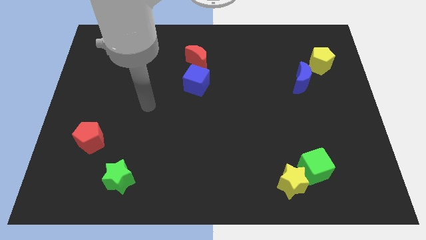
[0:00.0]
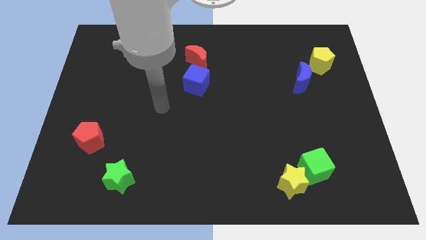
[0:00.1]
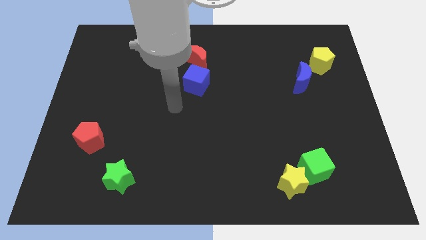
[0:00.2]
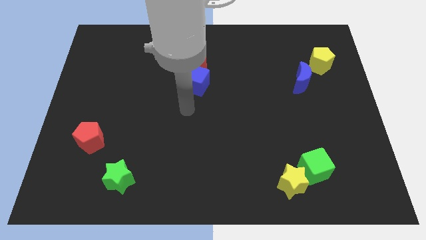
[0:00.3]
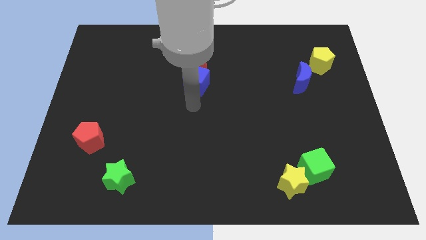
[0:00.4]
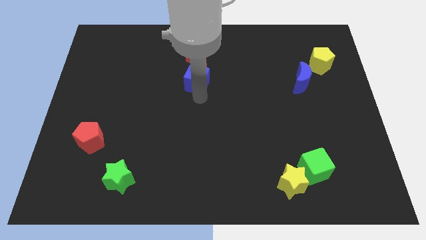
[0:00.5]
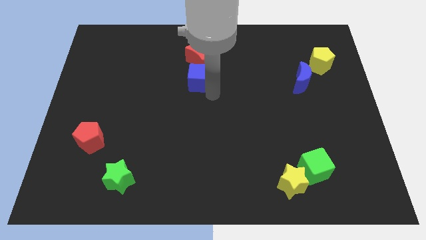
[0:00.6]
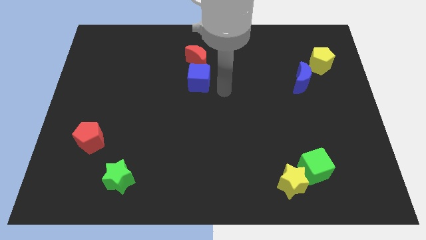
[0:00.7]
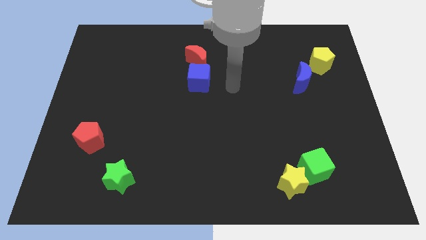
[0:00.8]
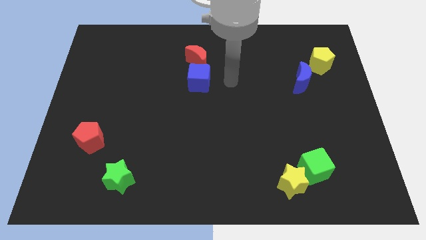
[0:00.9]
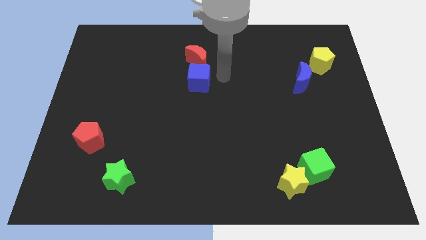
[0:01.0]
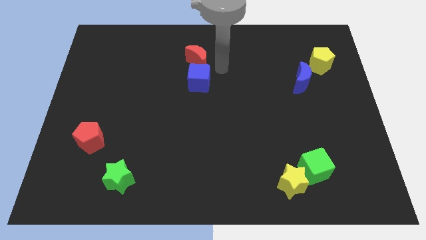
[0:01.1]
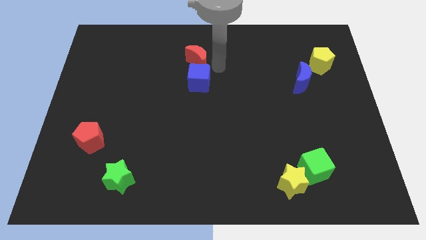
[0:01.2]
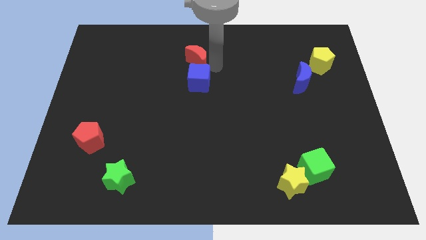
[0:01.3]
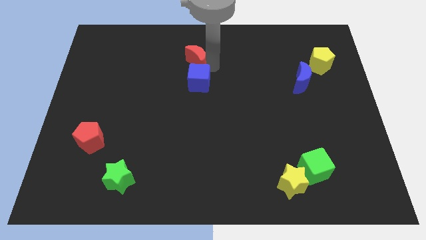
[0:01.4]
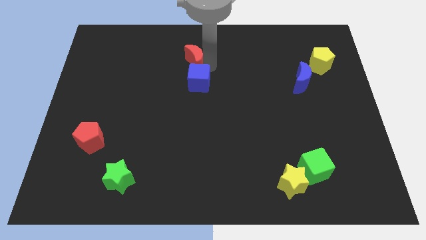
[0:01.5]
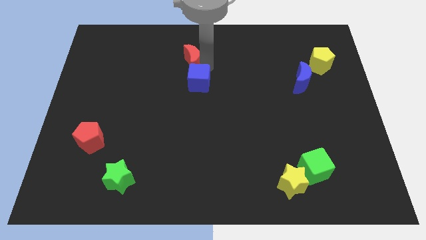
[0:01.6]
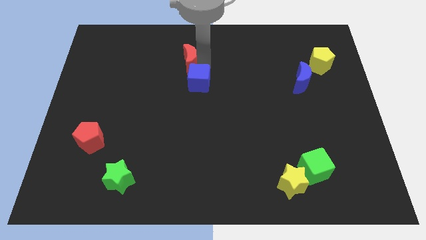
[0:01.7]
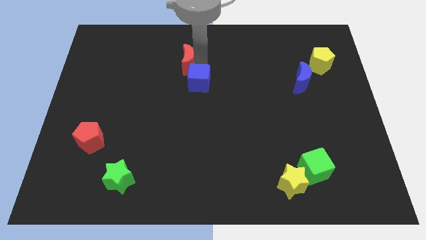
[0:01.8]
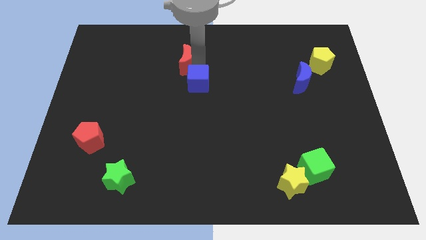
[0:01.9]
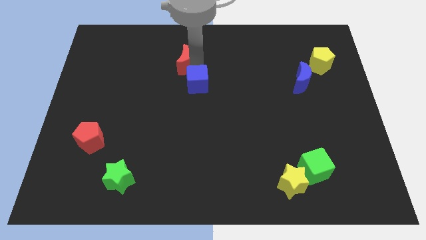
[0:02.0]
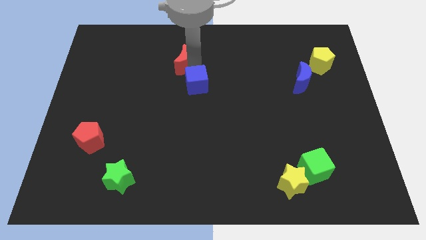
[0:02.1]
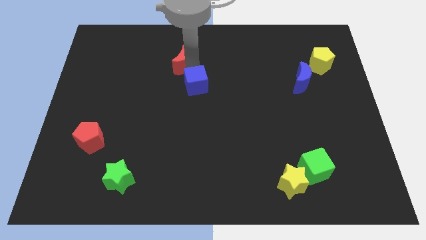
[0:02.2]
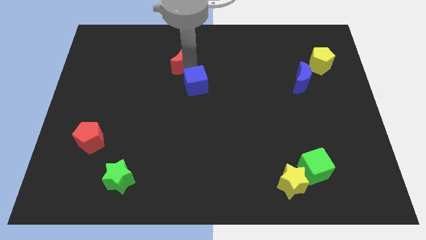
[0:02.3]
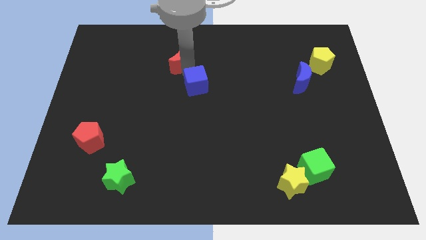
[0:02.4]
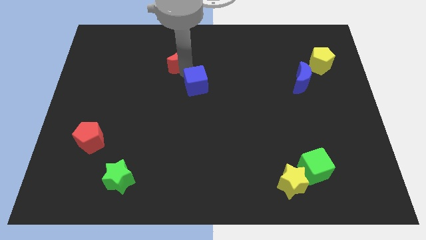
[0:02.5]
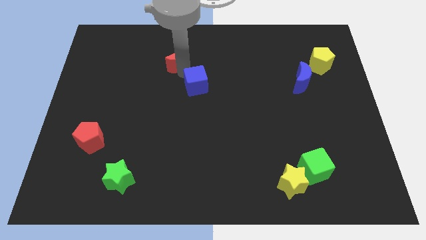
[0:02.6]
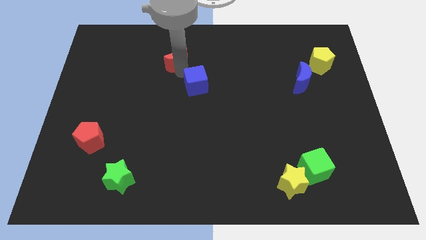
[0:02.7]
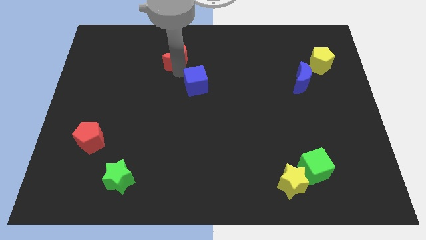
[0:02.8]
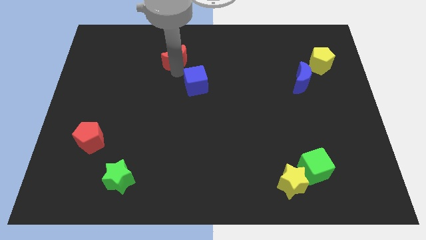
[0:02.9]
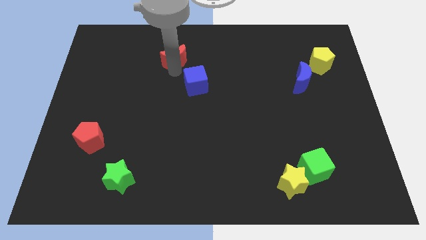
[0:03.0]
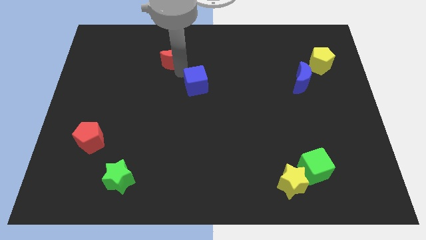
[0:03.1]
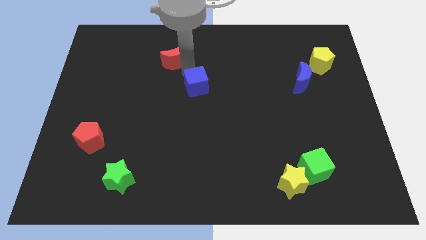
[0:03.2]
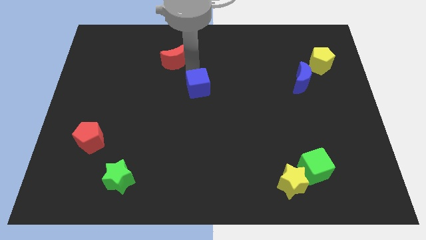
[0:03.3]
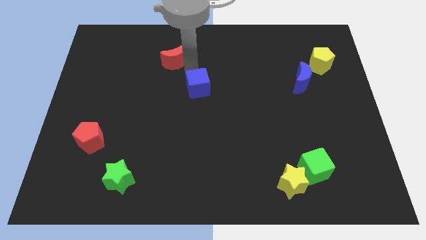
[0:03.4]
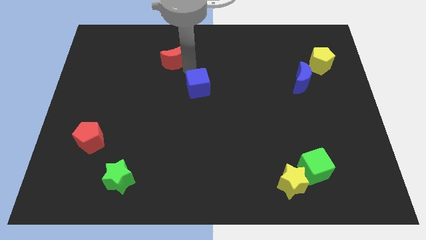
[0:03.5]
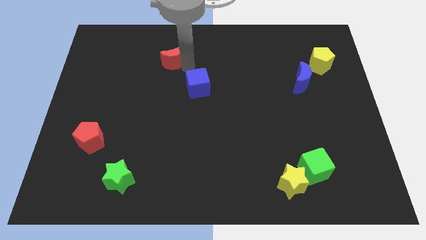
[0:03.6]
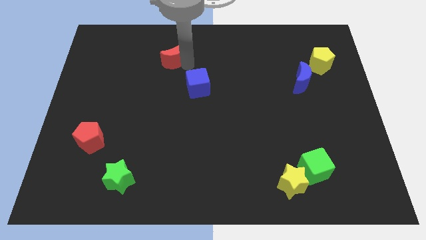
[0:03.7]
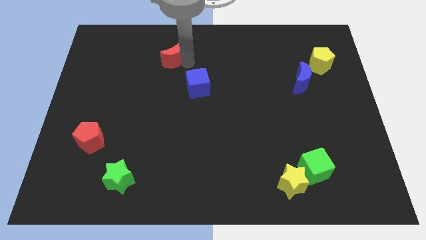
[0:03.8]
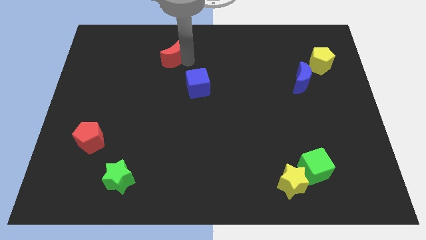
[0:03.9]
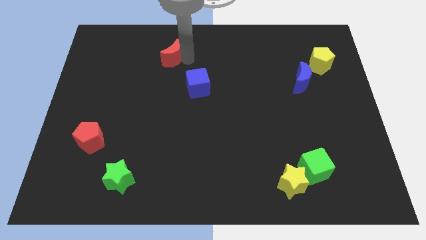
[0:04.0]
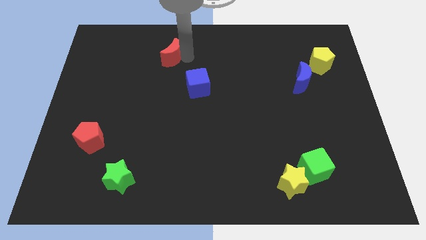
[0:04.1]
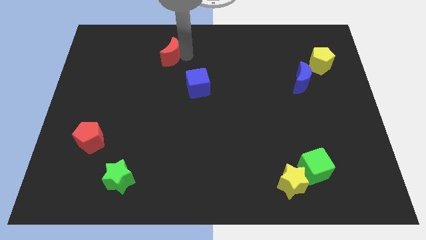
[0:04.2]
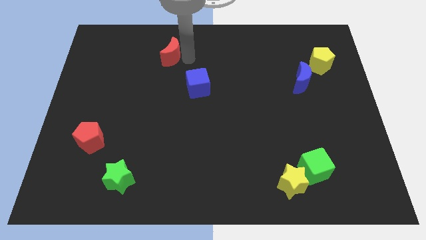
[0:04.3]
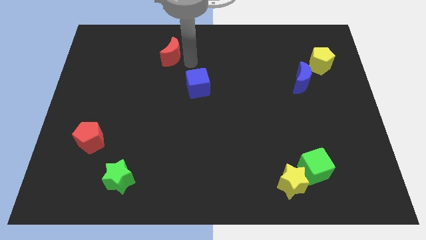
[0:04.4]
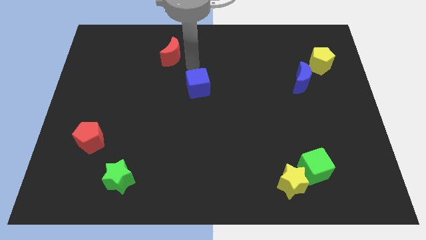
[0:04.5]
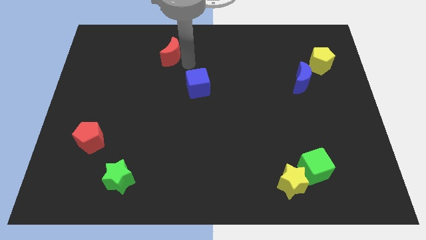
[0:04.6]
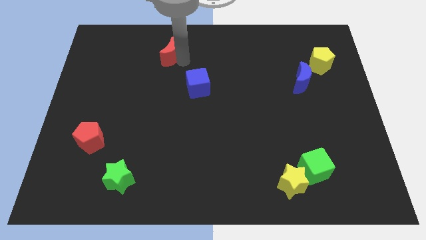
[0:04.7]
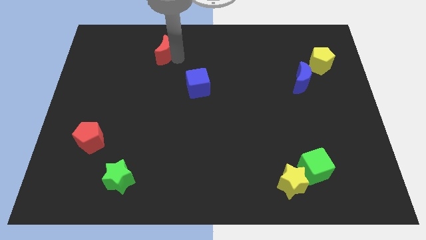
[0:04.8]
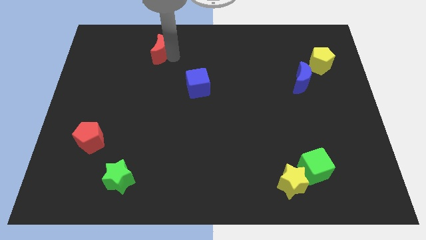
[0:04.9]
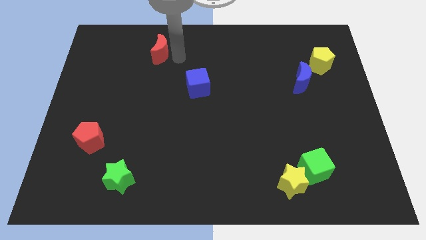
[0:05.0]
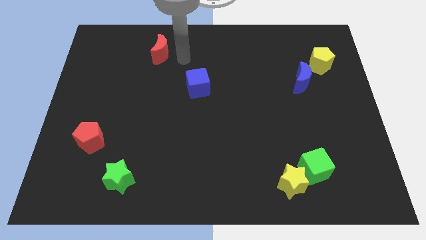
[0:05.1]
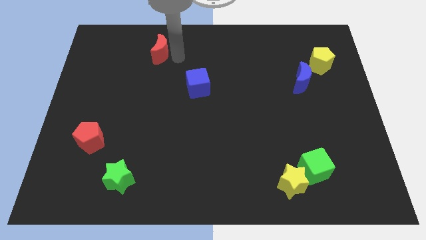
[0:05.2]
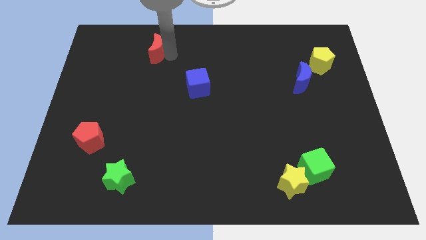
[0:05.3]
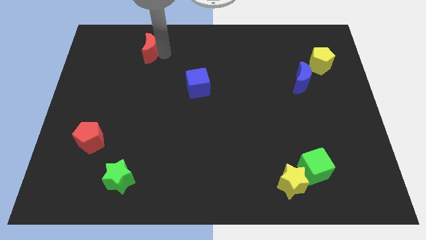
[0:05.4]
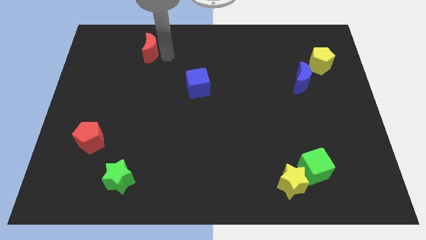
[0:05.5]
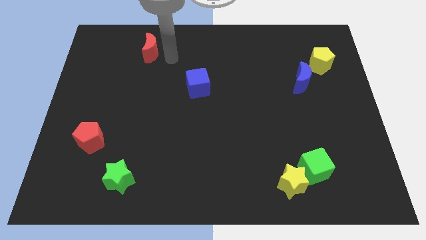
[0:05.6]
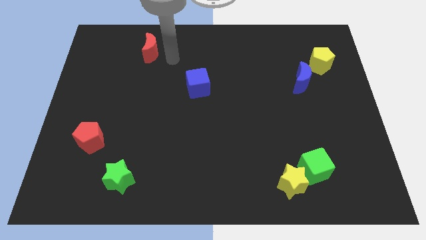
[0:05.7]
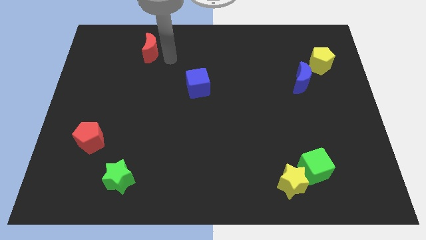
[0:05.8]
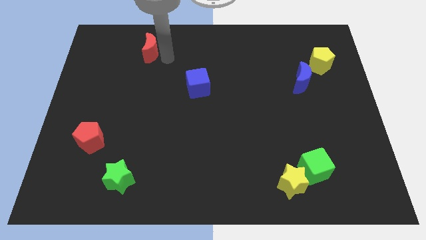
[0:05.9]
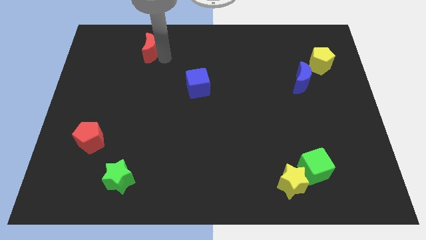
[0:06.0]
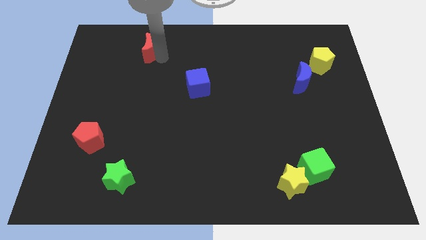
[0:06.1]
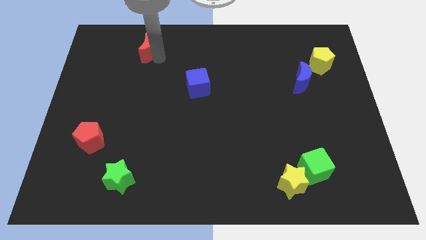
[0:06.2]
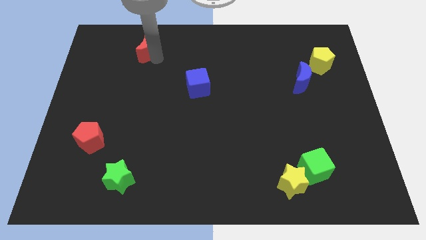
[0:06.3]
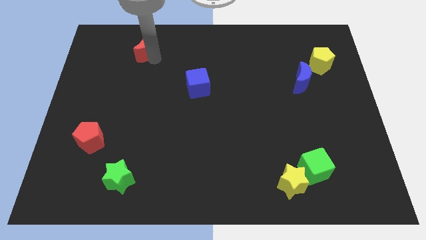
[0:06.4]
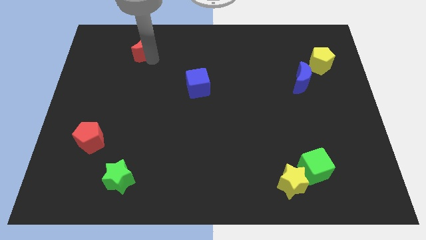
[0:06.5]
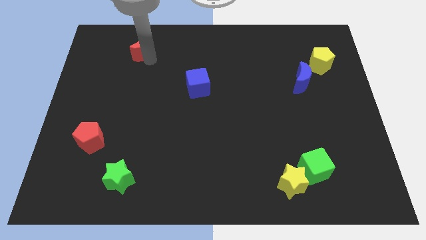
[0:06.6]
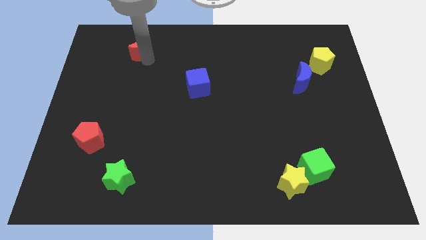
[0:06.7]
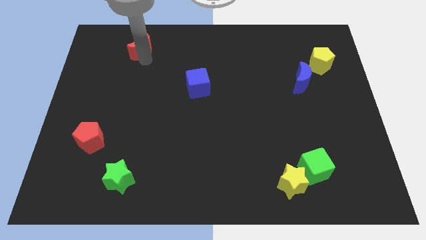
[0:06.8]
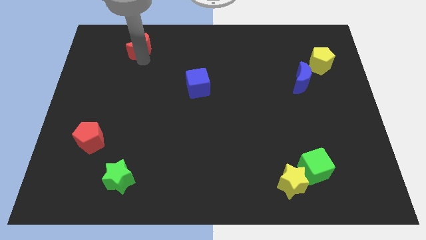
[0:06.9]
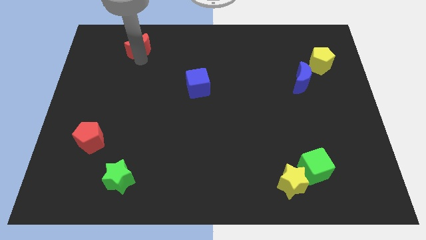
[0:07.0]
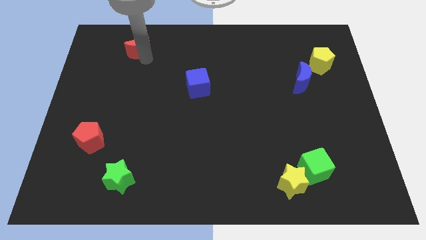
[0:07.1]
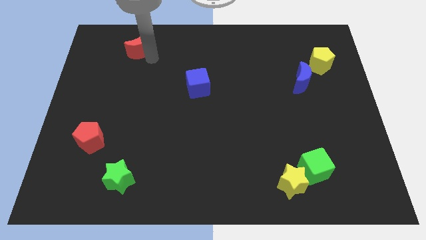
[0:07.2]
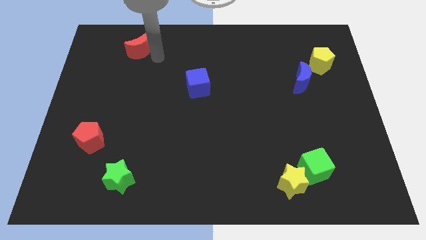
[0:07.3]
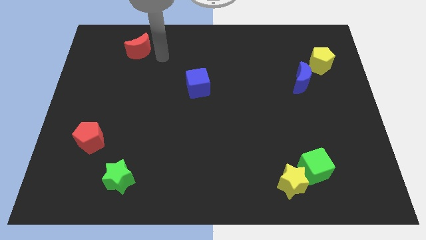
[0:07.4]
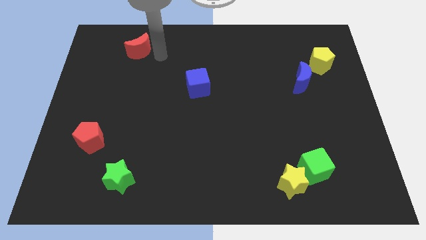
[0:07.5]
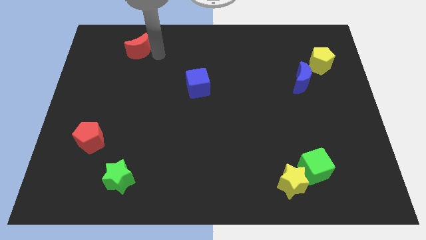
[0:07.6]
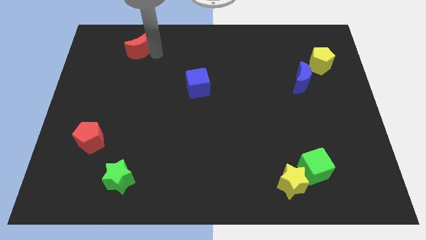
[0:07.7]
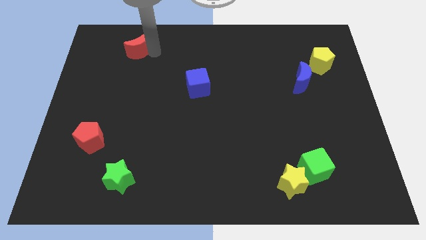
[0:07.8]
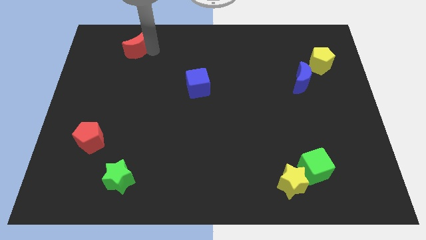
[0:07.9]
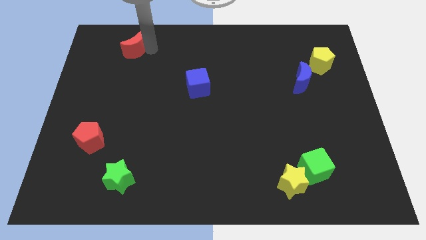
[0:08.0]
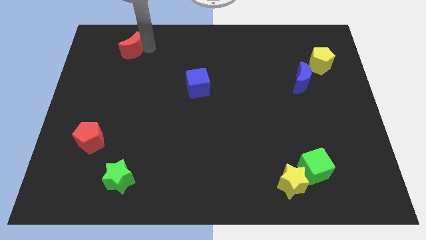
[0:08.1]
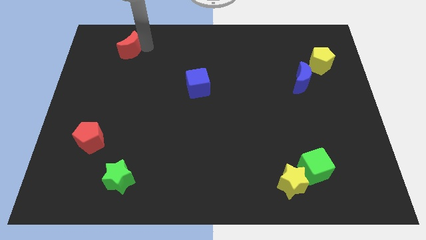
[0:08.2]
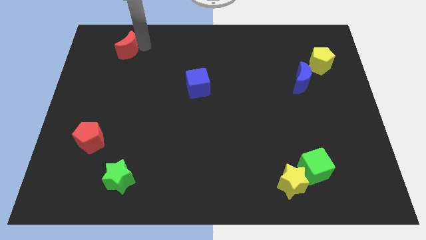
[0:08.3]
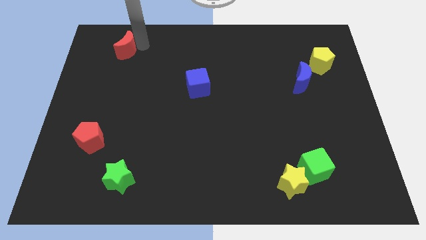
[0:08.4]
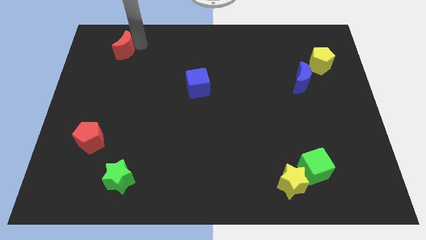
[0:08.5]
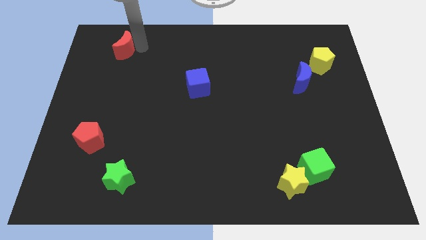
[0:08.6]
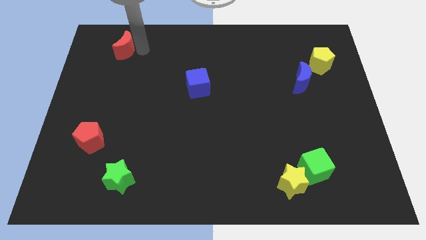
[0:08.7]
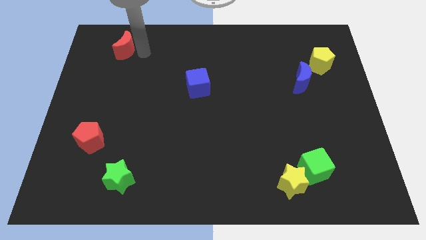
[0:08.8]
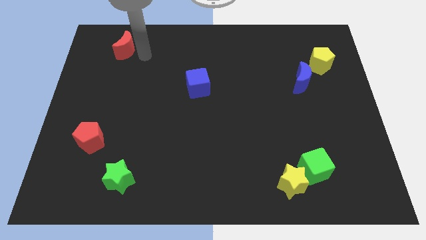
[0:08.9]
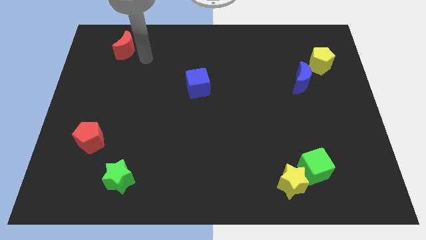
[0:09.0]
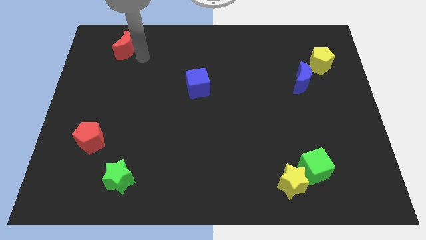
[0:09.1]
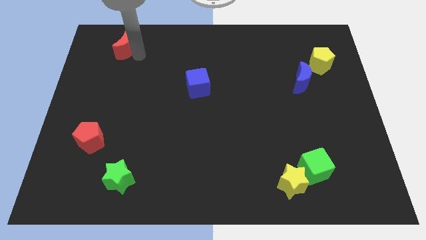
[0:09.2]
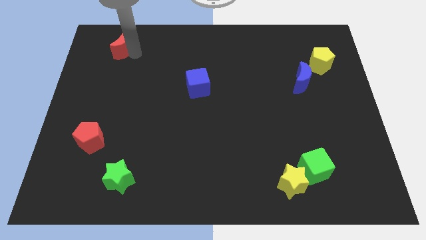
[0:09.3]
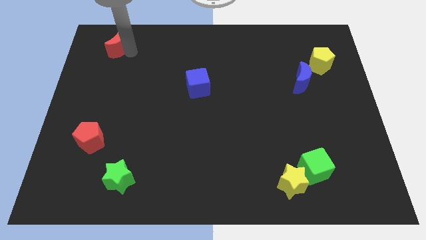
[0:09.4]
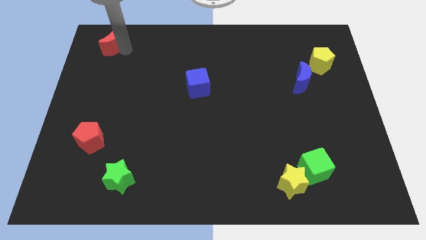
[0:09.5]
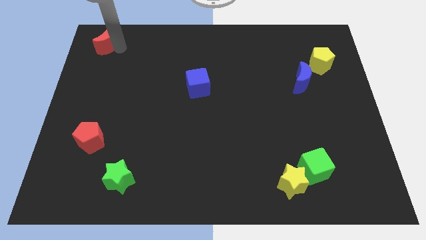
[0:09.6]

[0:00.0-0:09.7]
put the red moon to the top left of the board
